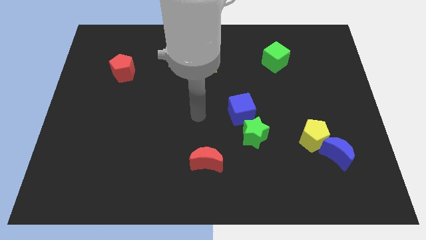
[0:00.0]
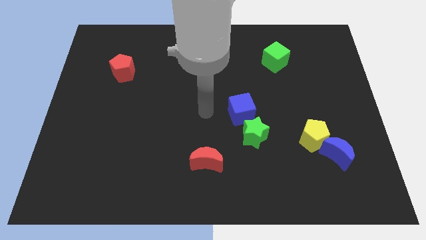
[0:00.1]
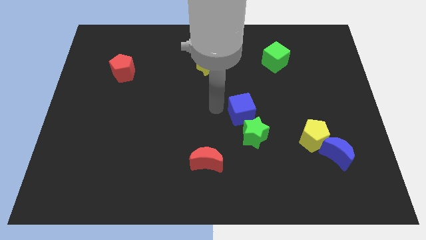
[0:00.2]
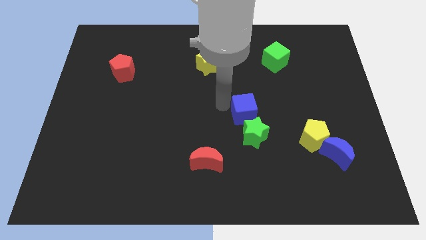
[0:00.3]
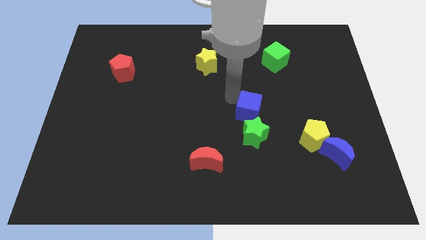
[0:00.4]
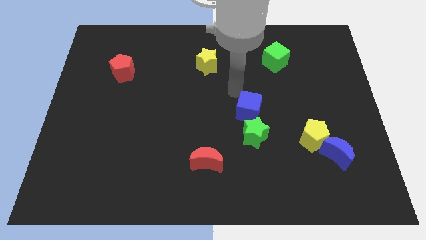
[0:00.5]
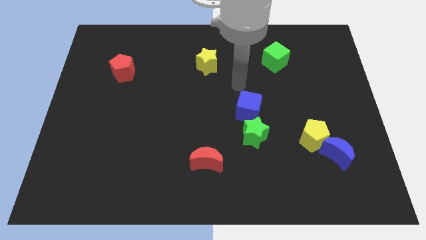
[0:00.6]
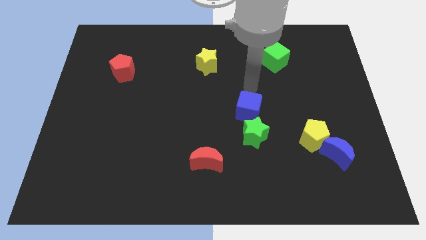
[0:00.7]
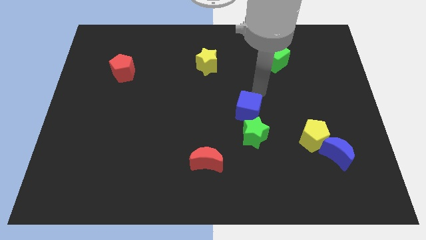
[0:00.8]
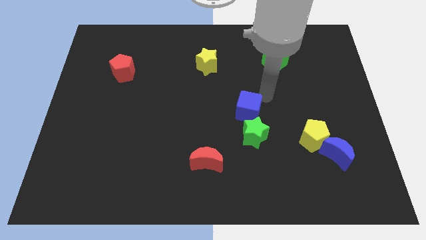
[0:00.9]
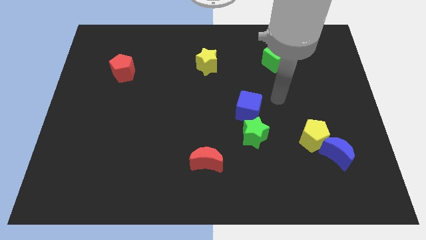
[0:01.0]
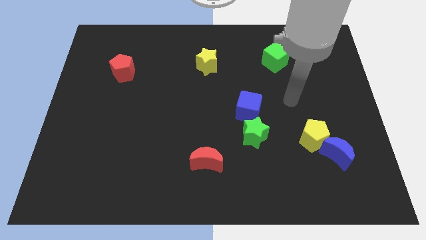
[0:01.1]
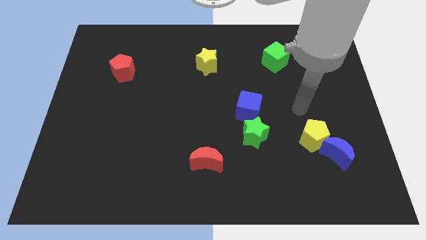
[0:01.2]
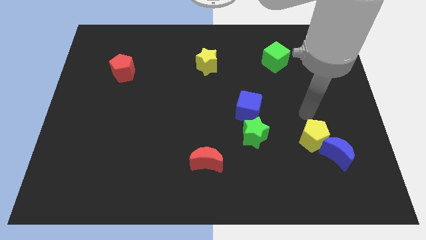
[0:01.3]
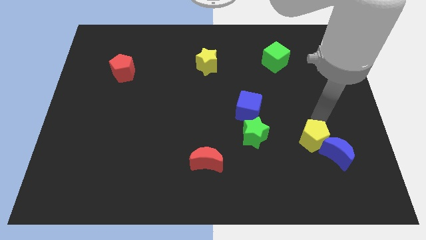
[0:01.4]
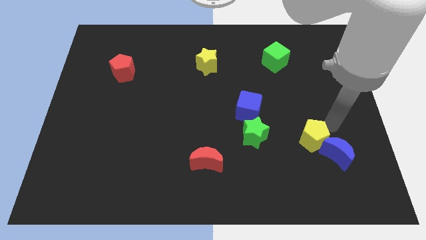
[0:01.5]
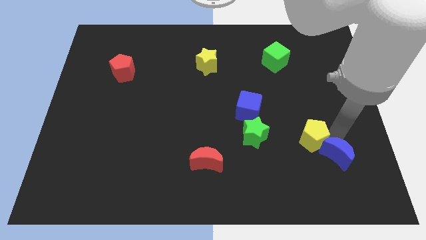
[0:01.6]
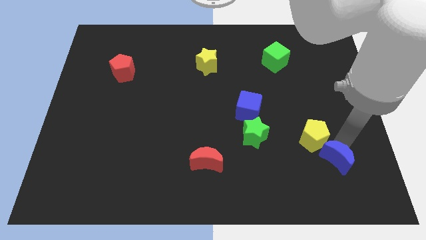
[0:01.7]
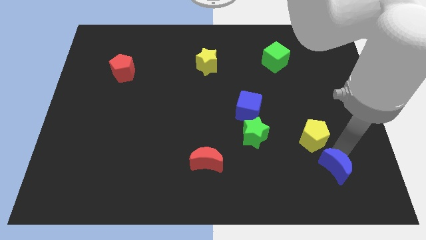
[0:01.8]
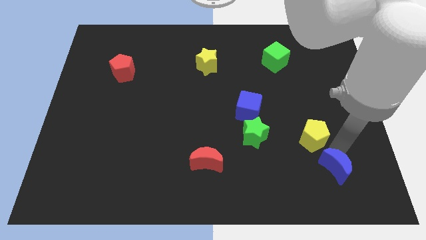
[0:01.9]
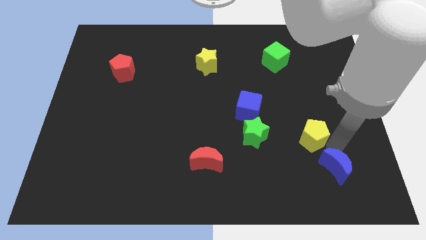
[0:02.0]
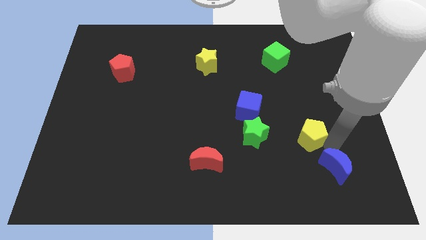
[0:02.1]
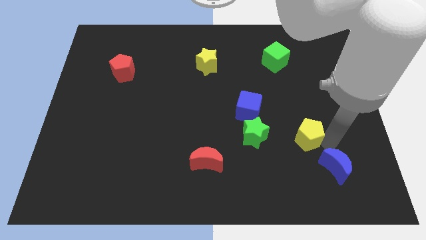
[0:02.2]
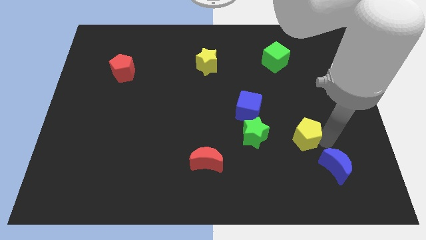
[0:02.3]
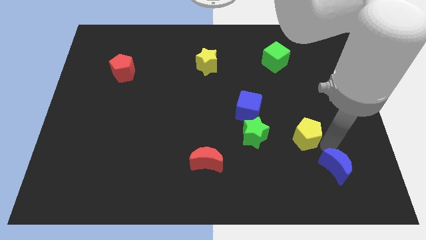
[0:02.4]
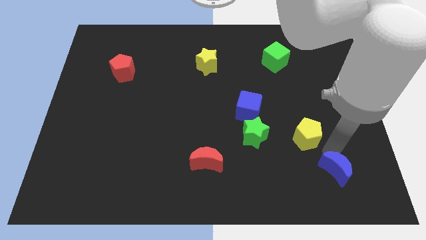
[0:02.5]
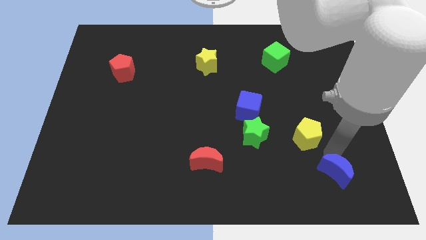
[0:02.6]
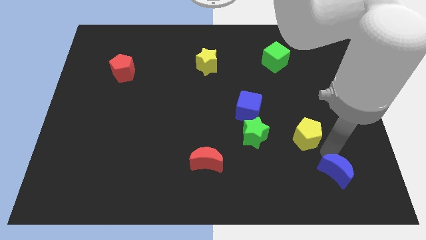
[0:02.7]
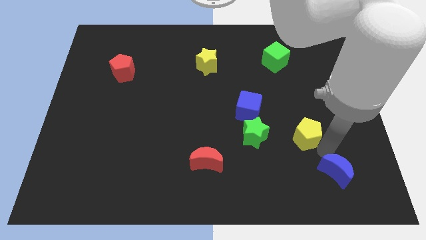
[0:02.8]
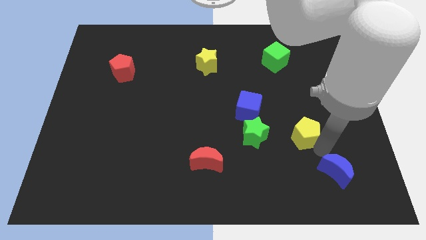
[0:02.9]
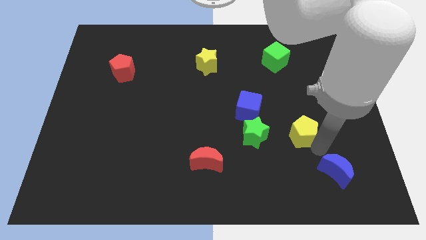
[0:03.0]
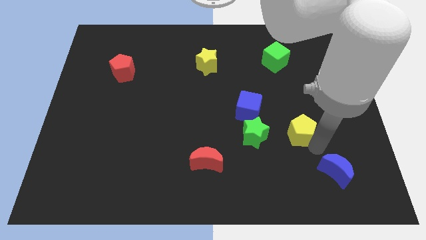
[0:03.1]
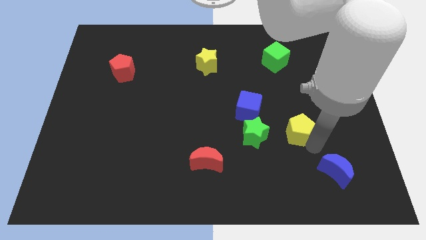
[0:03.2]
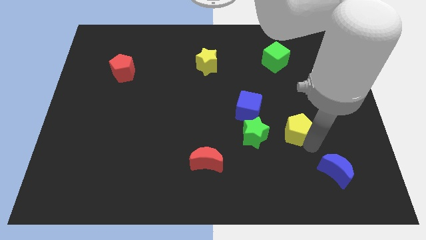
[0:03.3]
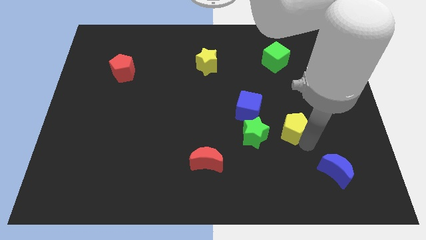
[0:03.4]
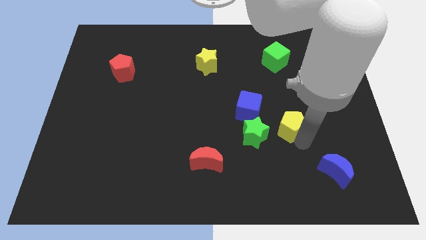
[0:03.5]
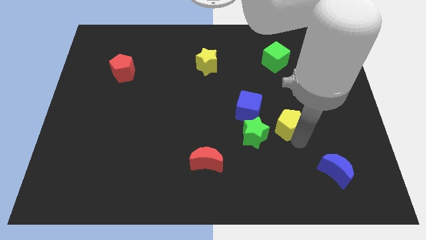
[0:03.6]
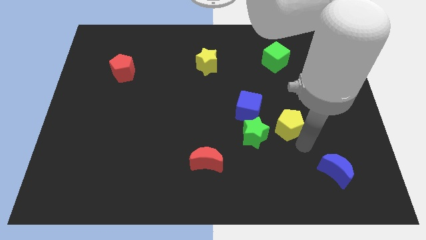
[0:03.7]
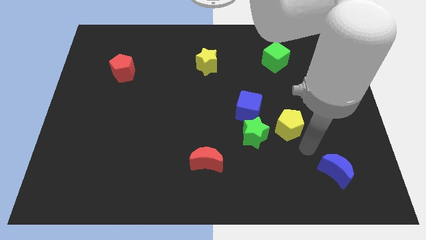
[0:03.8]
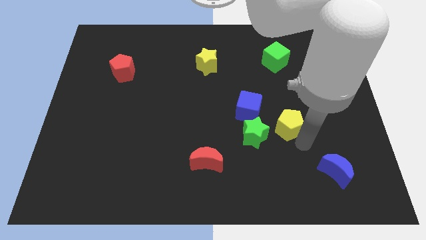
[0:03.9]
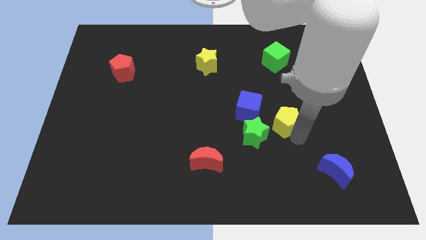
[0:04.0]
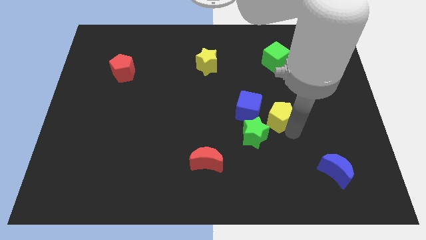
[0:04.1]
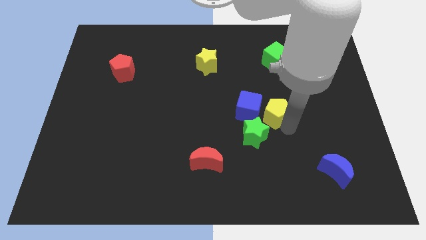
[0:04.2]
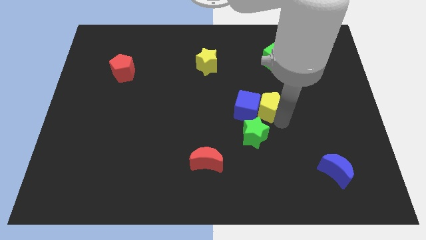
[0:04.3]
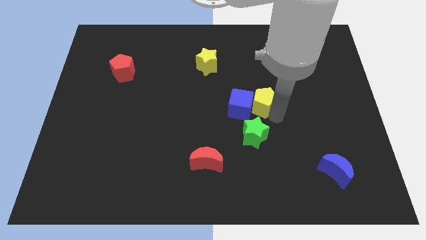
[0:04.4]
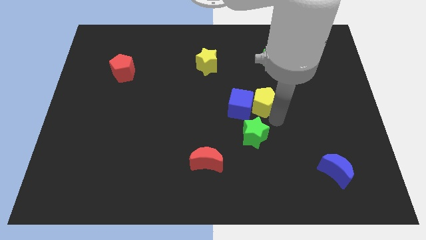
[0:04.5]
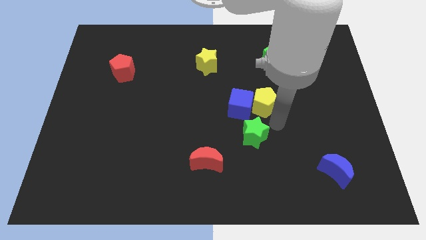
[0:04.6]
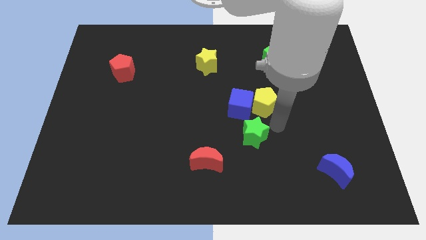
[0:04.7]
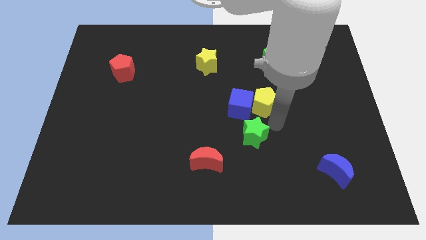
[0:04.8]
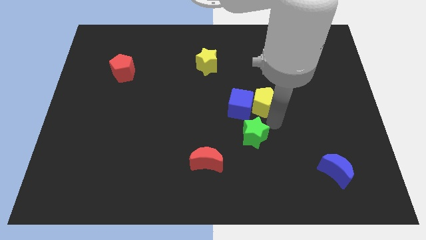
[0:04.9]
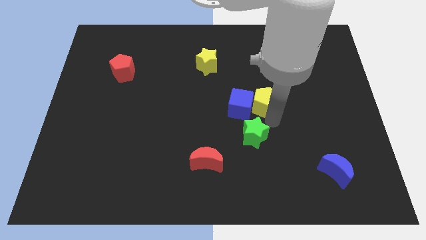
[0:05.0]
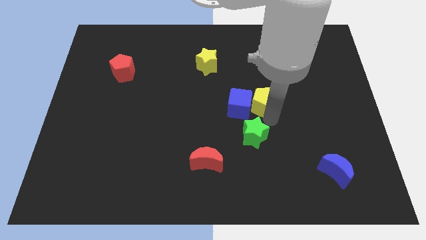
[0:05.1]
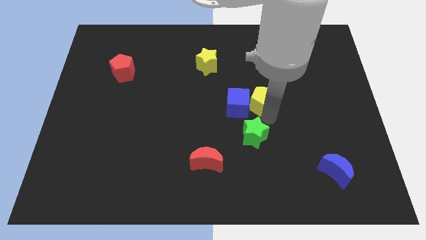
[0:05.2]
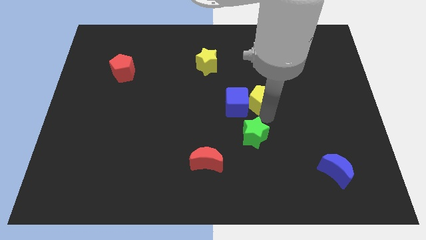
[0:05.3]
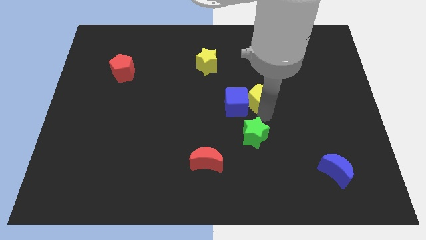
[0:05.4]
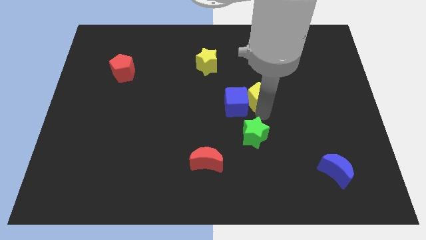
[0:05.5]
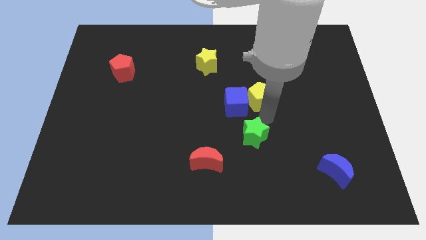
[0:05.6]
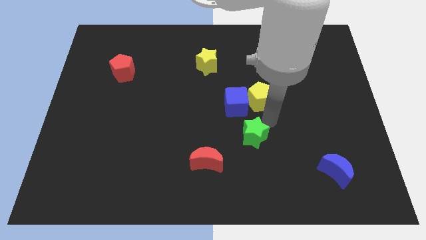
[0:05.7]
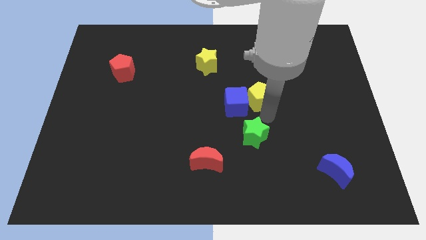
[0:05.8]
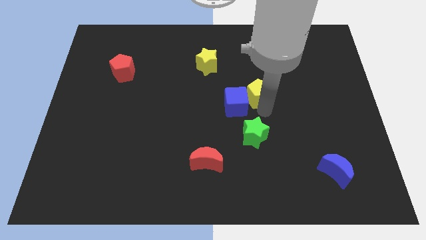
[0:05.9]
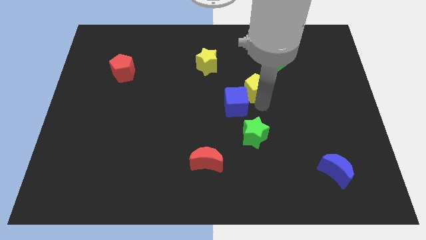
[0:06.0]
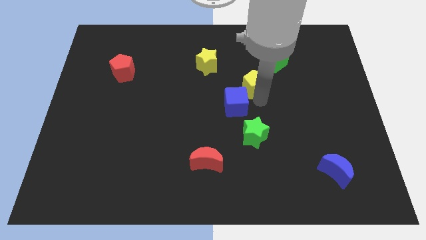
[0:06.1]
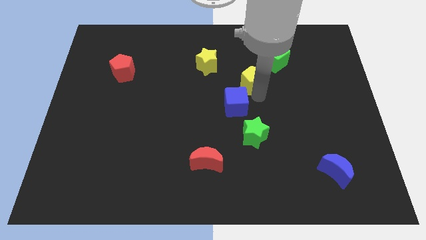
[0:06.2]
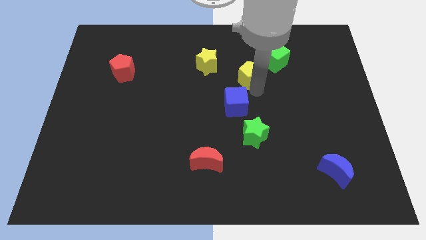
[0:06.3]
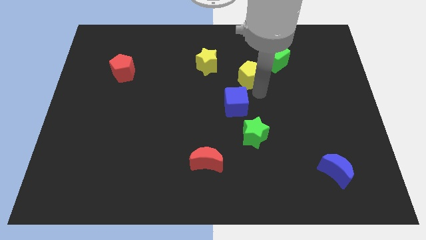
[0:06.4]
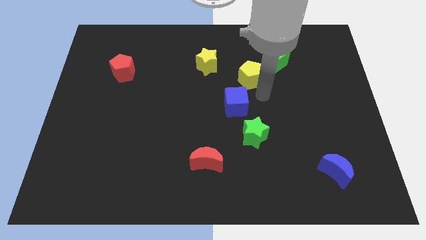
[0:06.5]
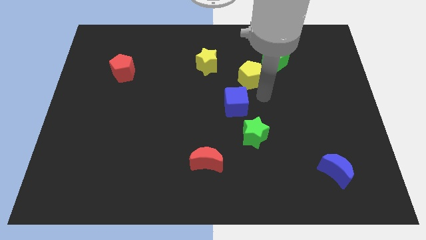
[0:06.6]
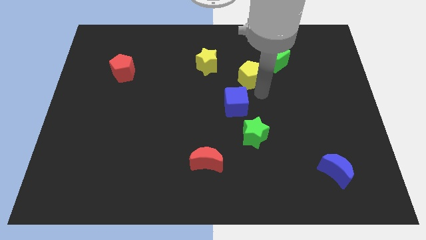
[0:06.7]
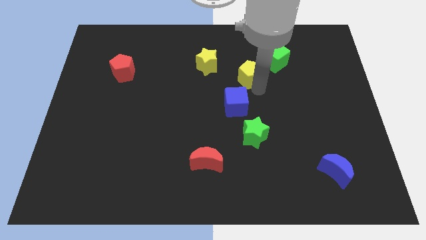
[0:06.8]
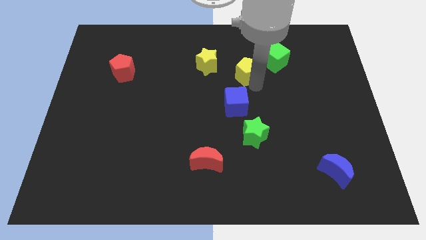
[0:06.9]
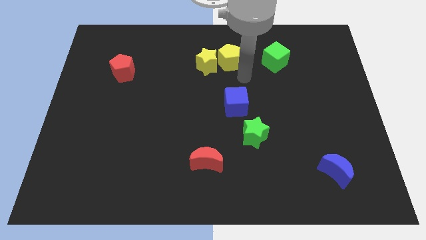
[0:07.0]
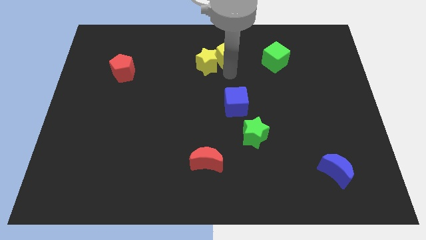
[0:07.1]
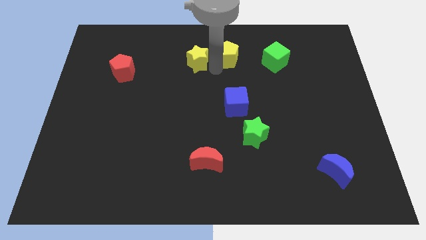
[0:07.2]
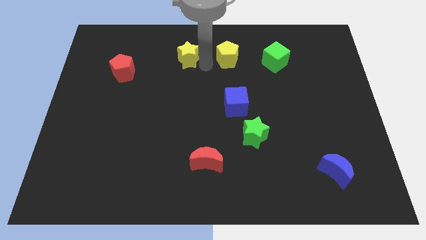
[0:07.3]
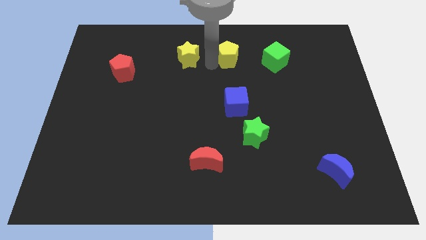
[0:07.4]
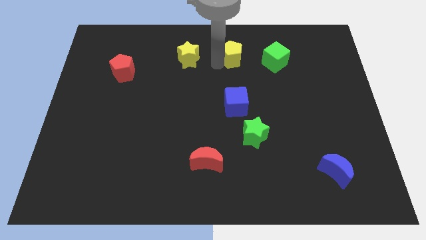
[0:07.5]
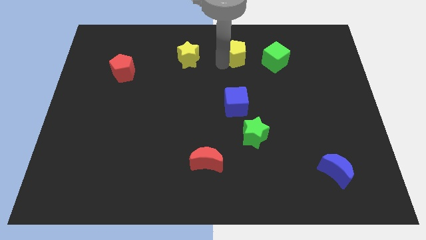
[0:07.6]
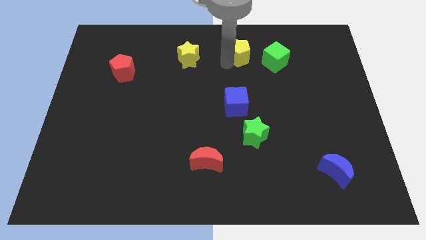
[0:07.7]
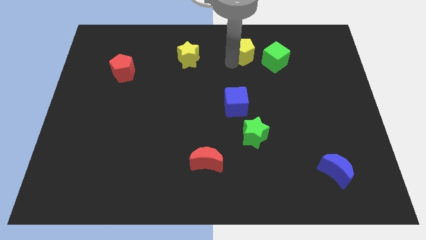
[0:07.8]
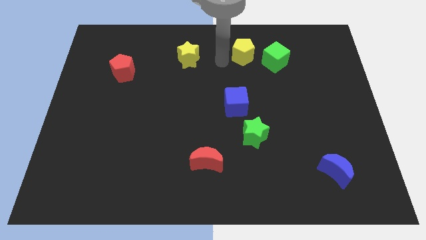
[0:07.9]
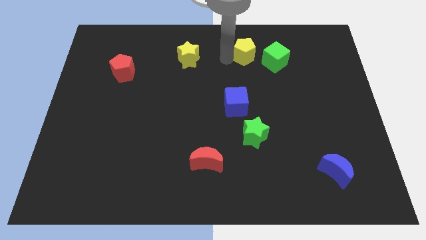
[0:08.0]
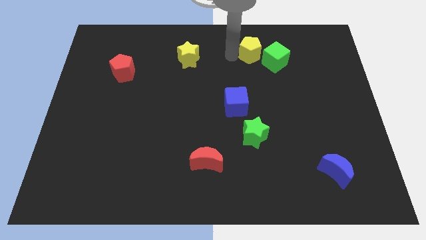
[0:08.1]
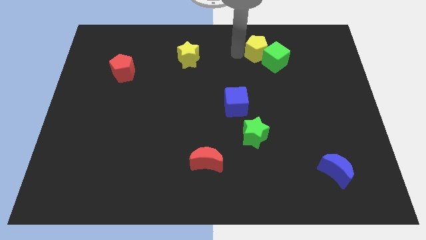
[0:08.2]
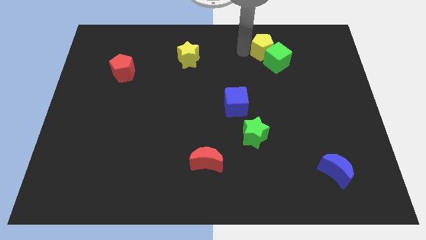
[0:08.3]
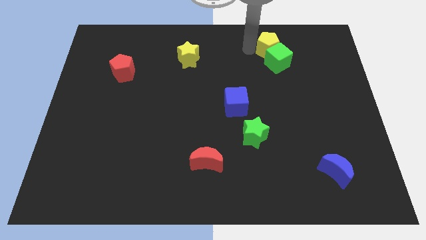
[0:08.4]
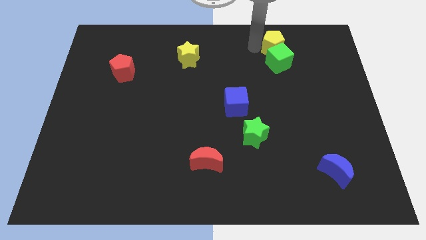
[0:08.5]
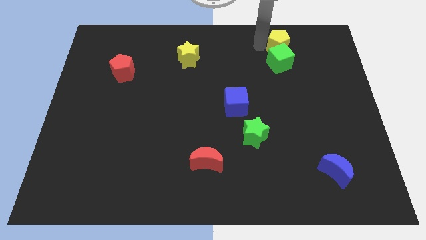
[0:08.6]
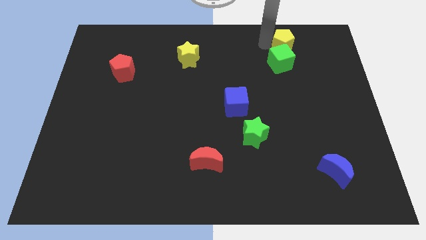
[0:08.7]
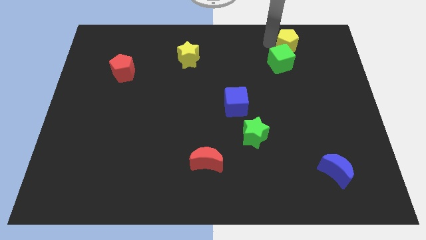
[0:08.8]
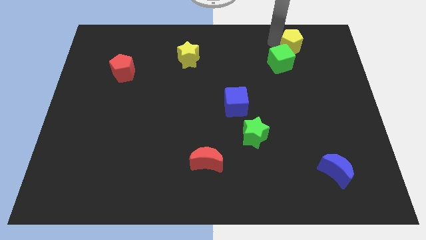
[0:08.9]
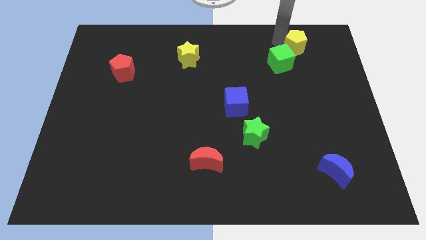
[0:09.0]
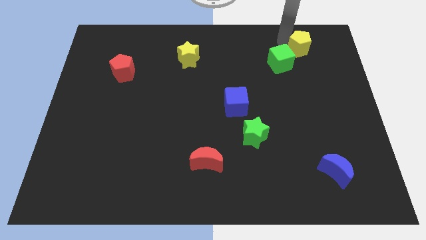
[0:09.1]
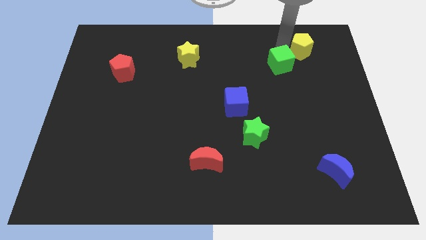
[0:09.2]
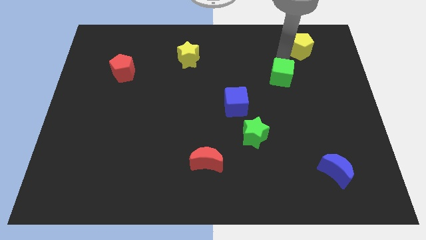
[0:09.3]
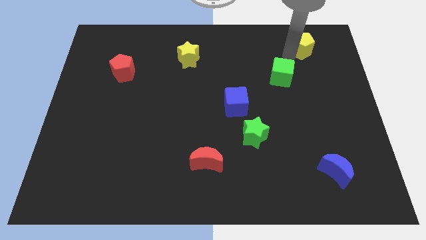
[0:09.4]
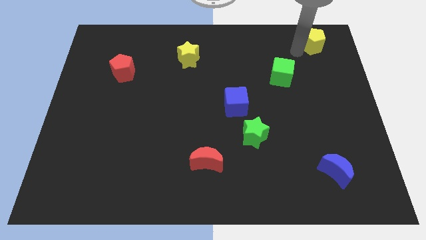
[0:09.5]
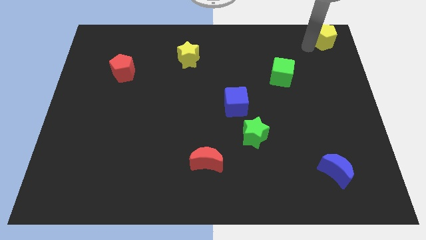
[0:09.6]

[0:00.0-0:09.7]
move the yellow pentagon to the upper right corner
